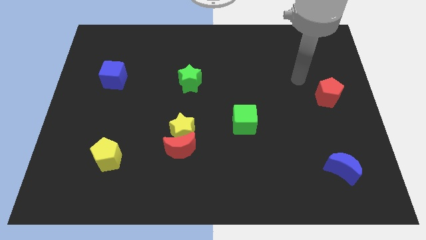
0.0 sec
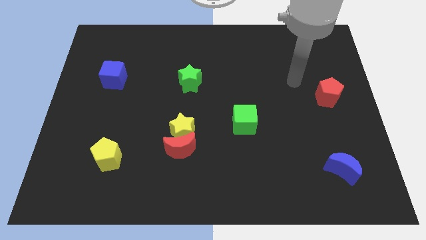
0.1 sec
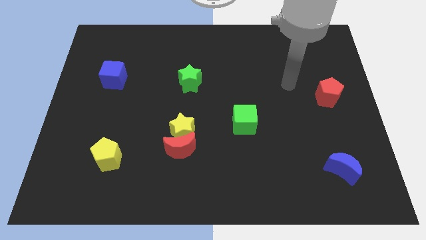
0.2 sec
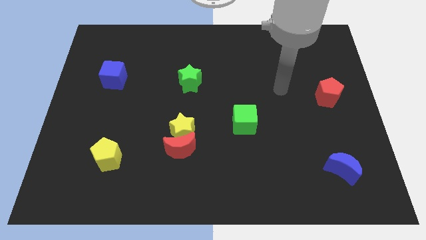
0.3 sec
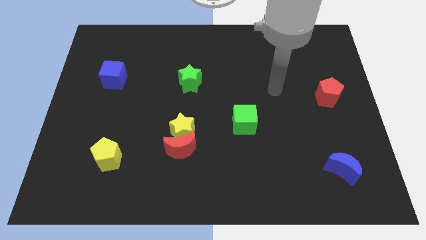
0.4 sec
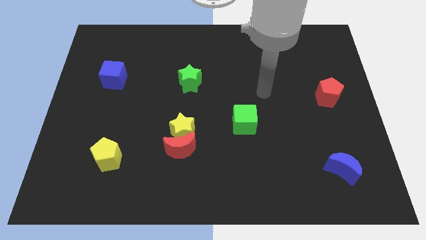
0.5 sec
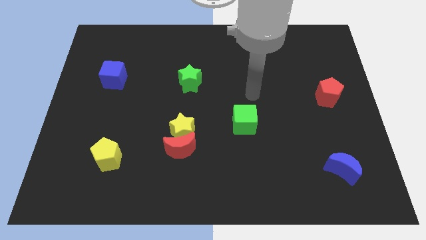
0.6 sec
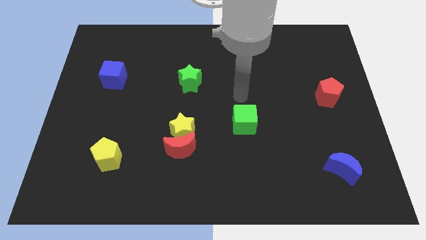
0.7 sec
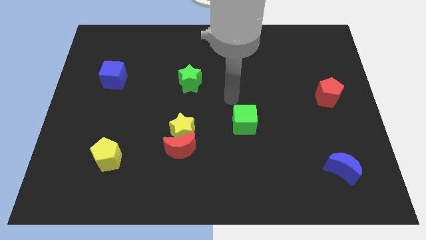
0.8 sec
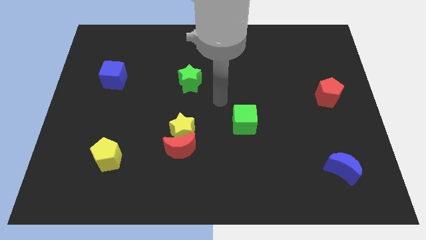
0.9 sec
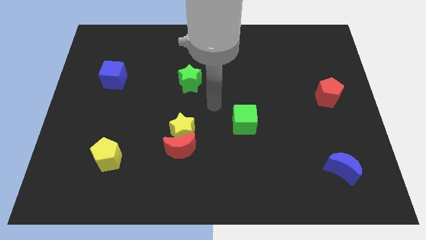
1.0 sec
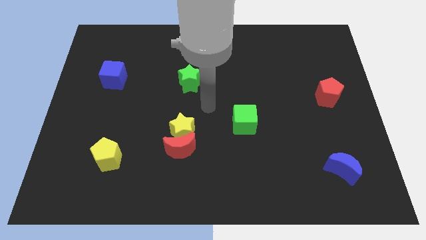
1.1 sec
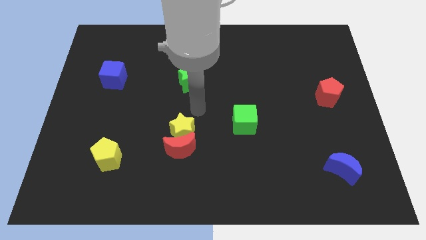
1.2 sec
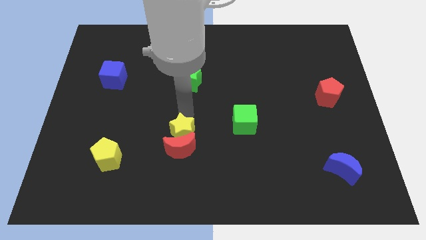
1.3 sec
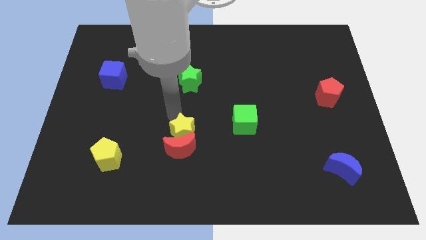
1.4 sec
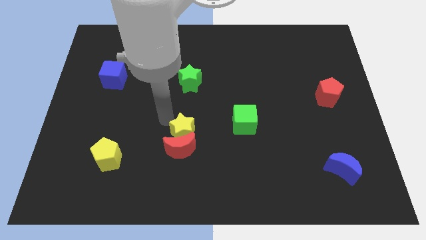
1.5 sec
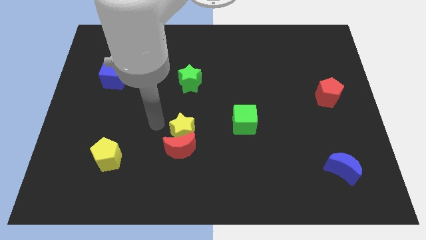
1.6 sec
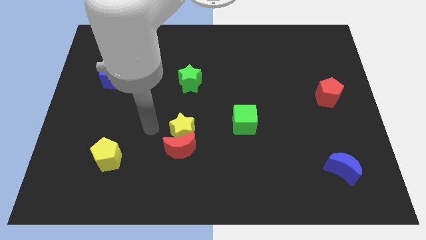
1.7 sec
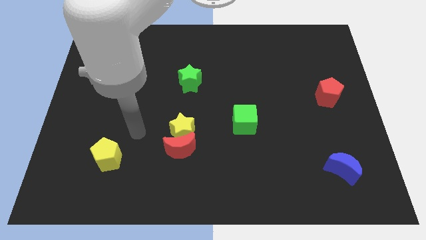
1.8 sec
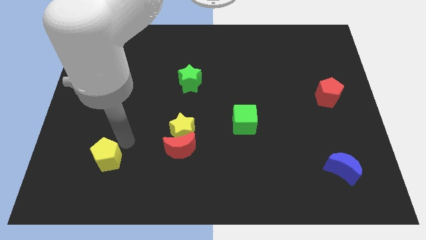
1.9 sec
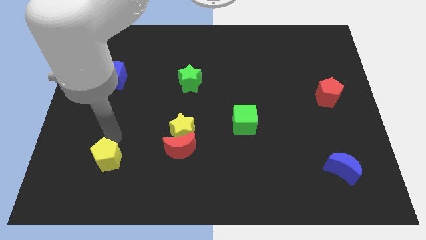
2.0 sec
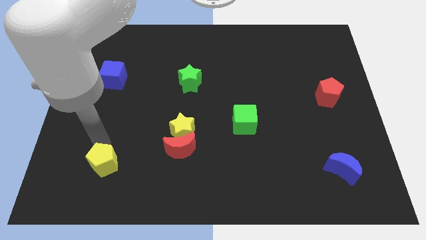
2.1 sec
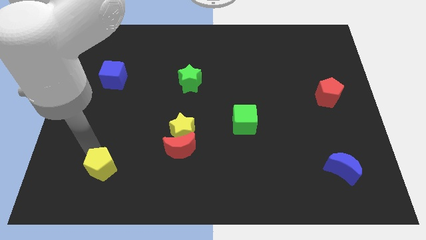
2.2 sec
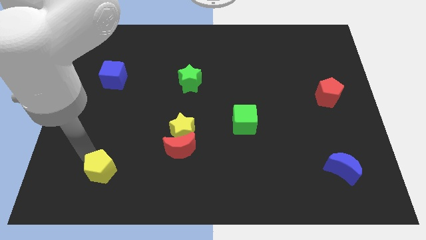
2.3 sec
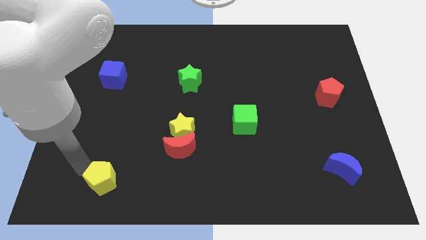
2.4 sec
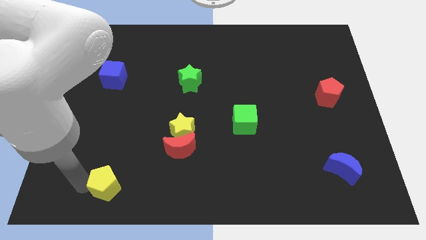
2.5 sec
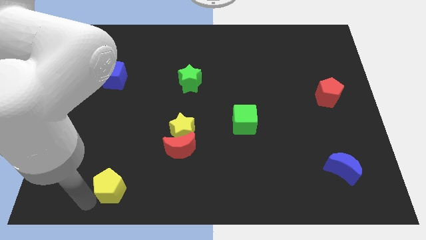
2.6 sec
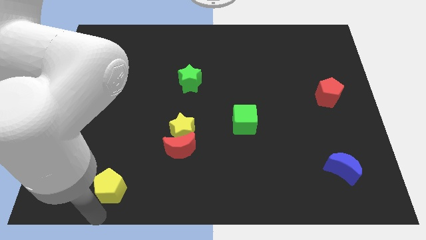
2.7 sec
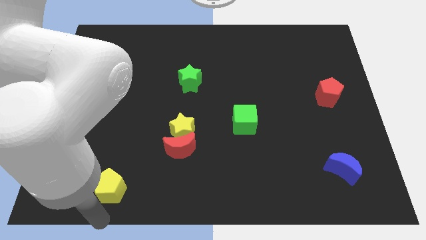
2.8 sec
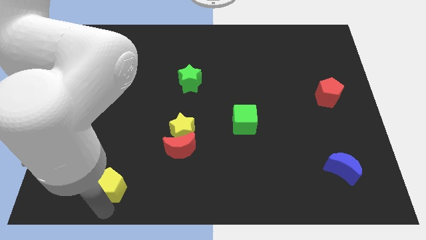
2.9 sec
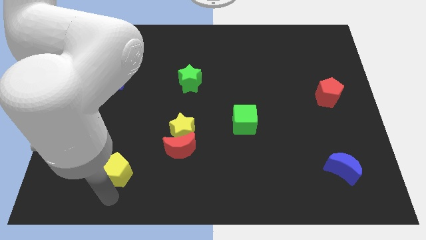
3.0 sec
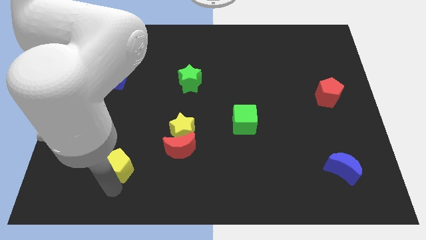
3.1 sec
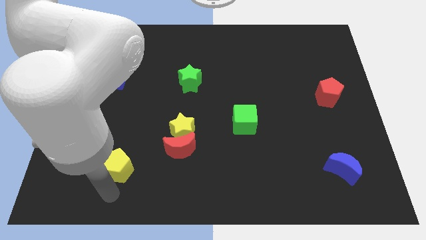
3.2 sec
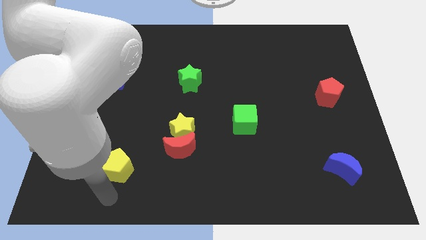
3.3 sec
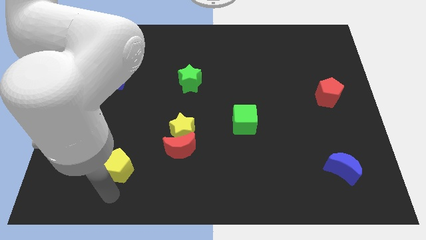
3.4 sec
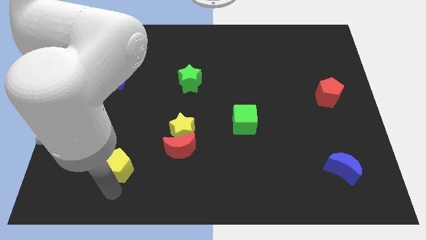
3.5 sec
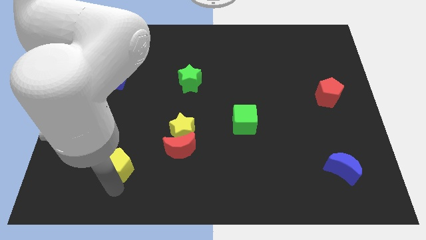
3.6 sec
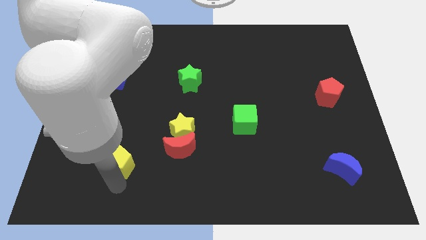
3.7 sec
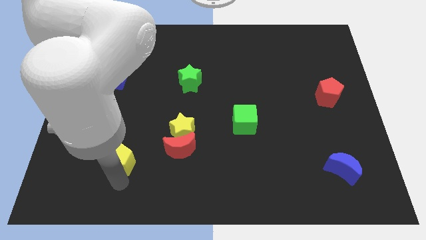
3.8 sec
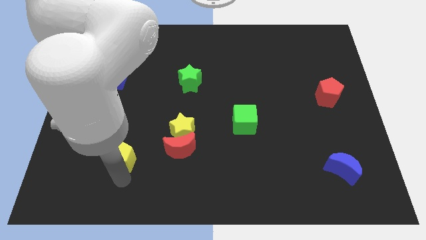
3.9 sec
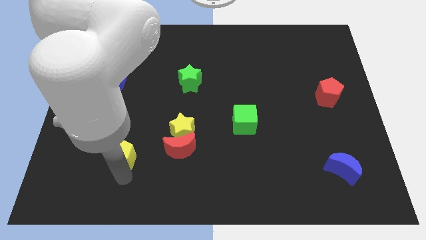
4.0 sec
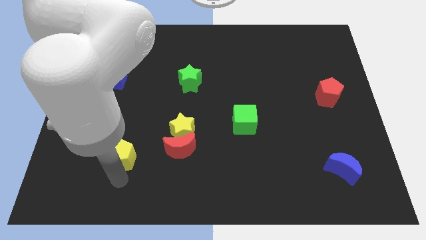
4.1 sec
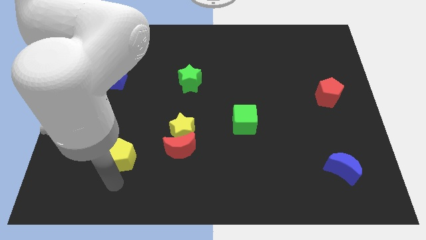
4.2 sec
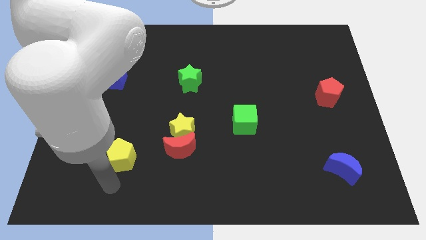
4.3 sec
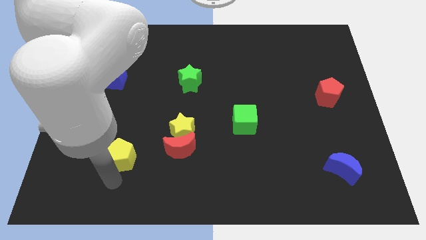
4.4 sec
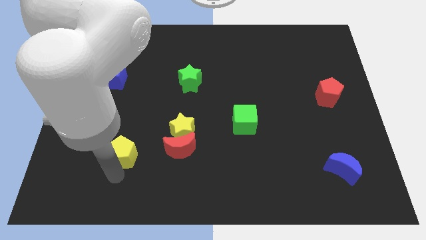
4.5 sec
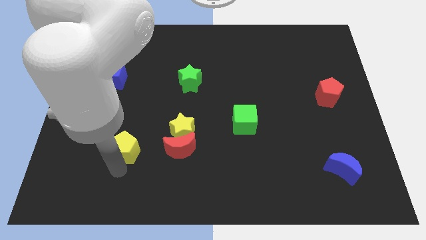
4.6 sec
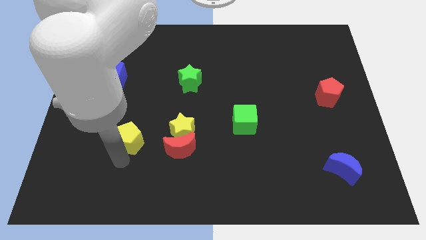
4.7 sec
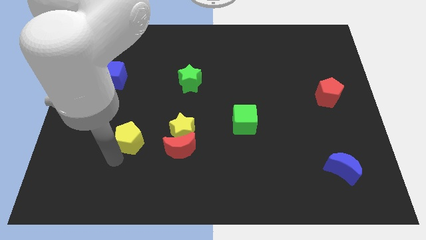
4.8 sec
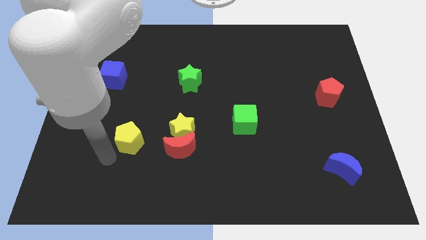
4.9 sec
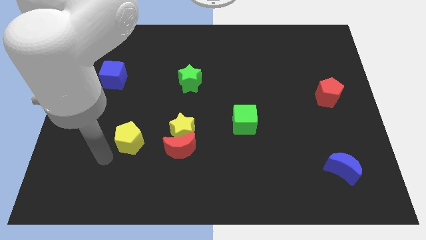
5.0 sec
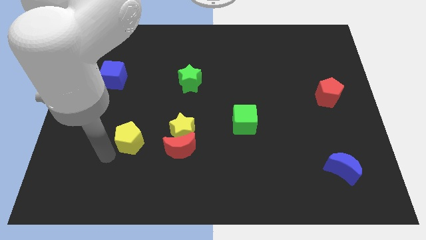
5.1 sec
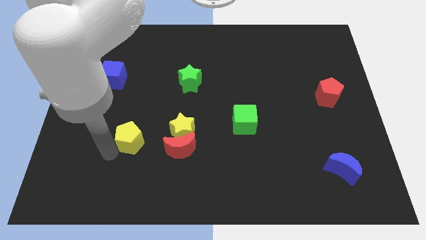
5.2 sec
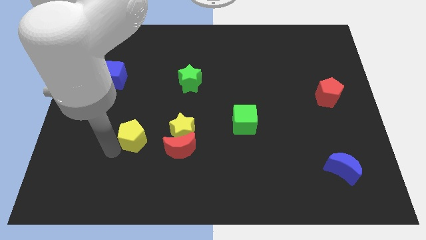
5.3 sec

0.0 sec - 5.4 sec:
move the yellow pentagon slightly up and to the right diagonally

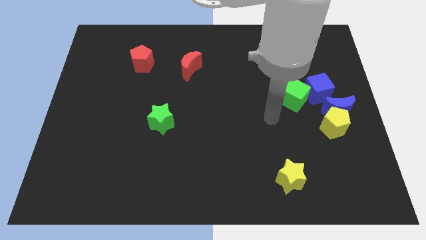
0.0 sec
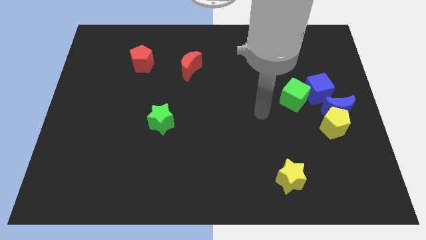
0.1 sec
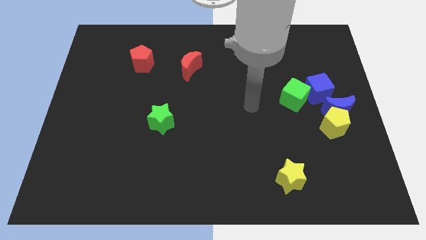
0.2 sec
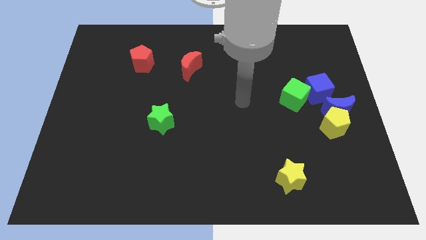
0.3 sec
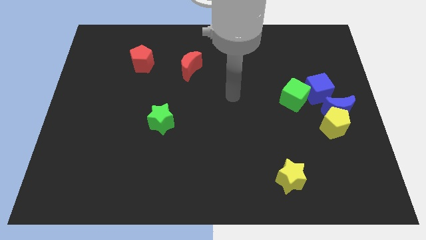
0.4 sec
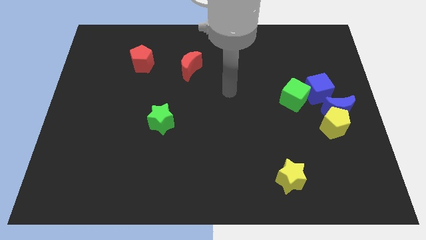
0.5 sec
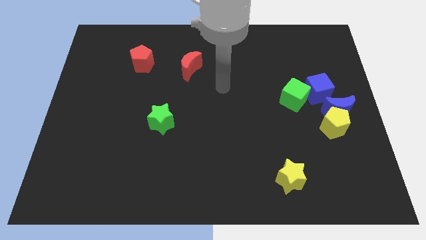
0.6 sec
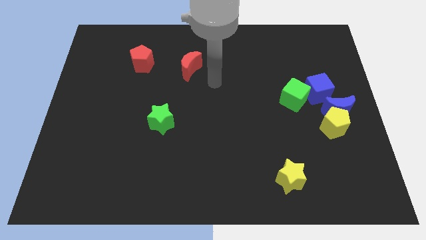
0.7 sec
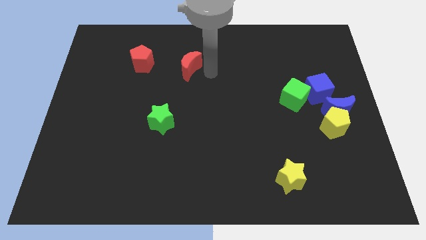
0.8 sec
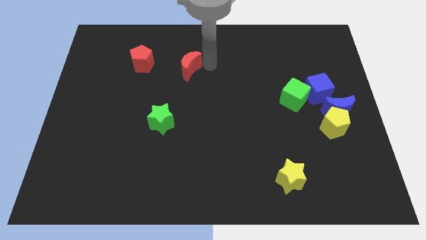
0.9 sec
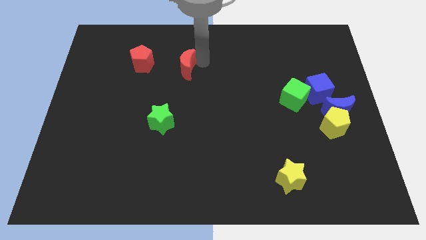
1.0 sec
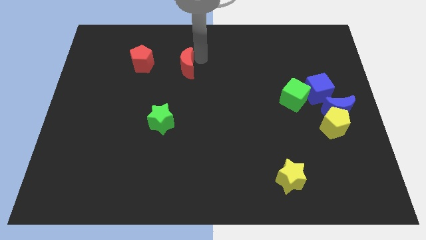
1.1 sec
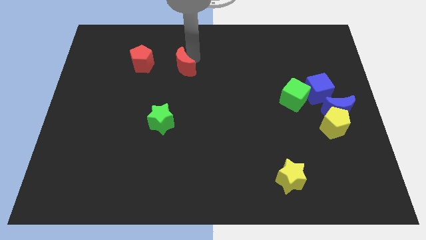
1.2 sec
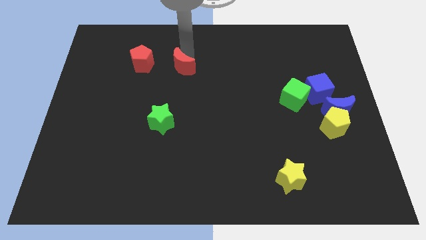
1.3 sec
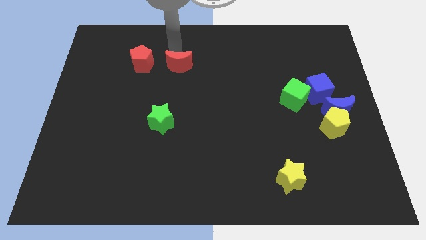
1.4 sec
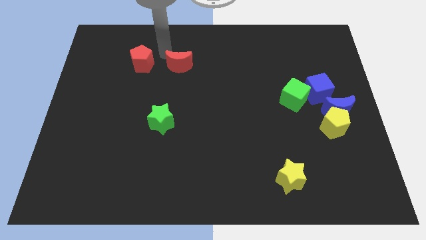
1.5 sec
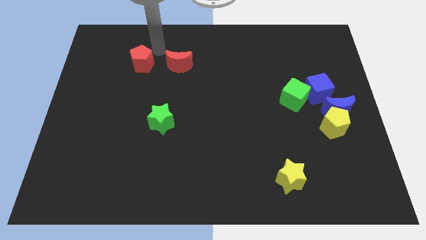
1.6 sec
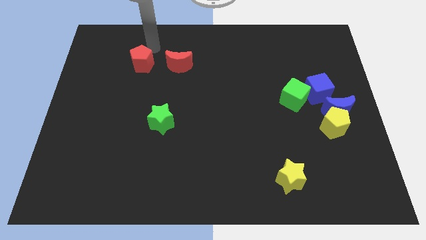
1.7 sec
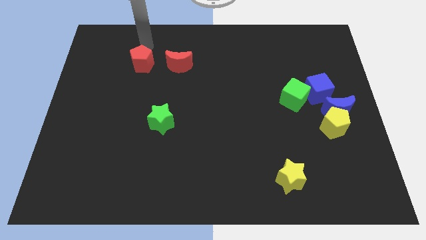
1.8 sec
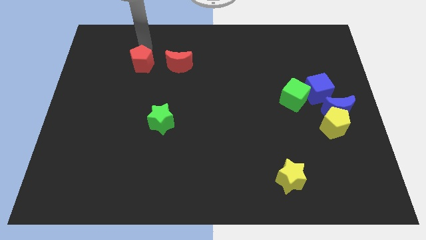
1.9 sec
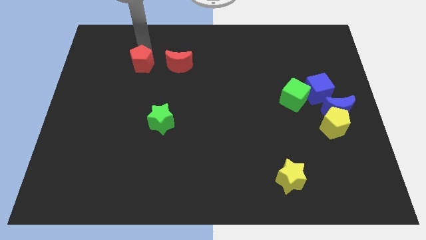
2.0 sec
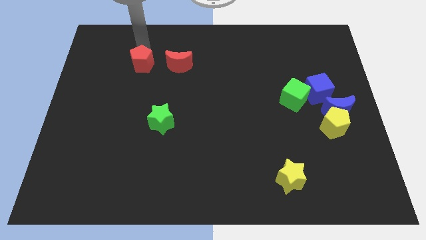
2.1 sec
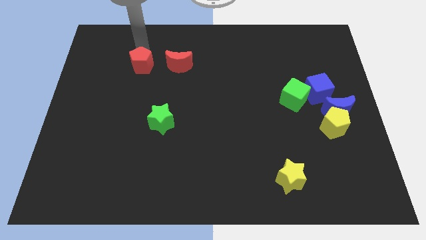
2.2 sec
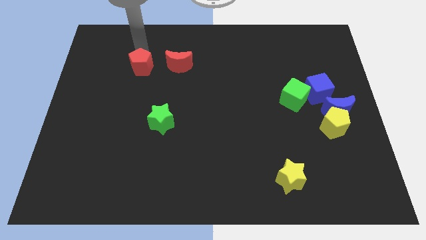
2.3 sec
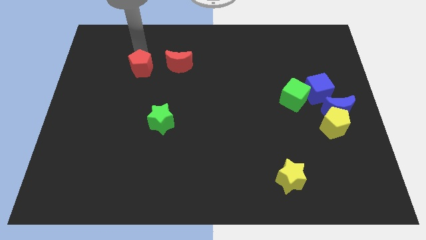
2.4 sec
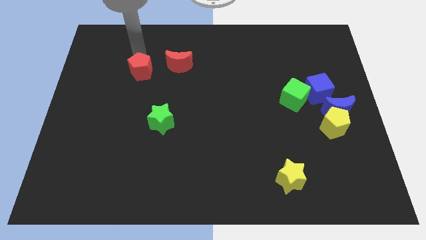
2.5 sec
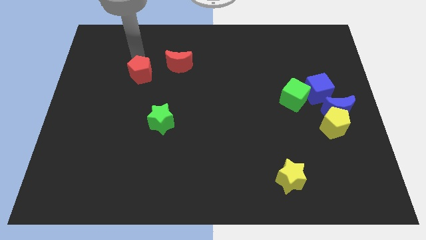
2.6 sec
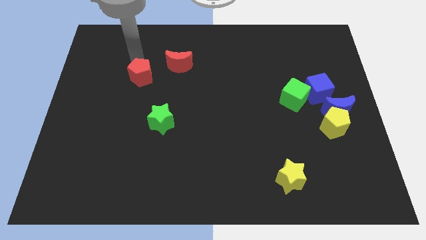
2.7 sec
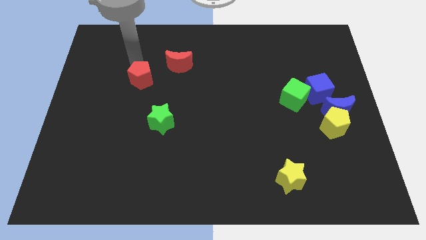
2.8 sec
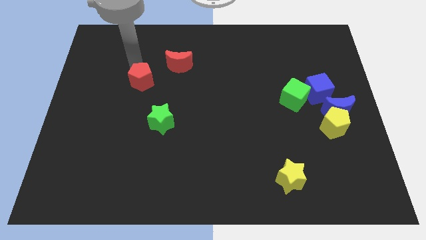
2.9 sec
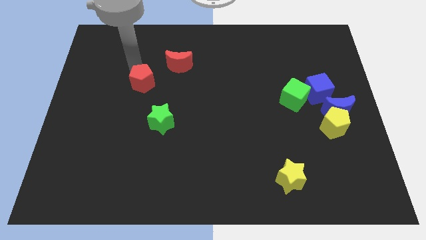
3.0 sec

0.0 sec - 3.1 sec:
slide the red pentagon a bit downwards

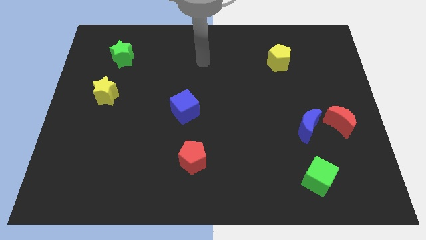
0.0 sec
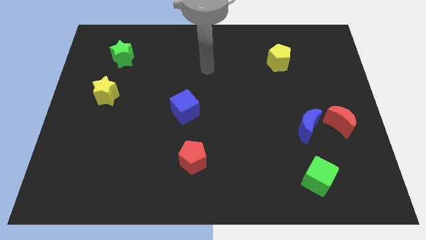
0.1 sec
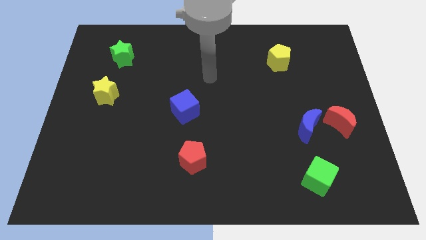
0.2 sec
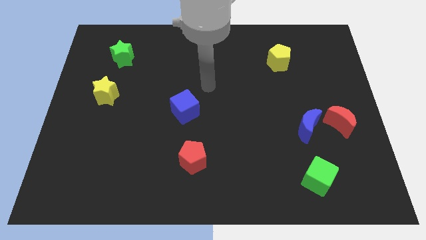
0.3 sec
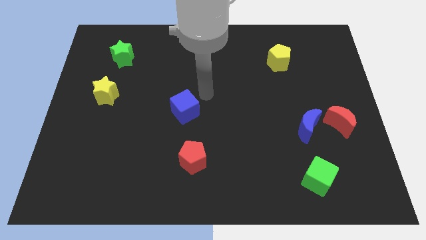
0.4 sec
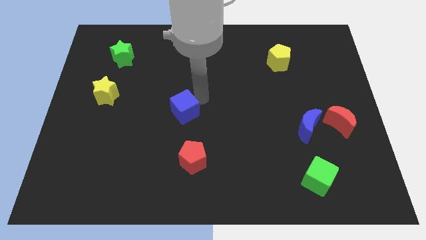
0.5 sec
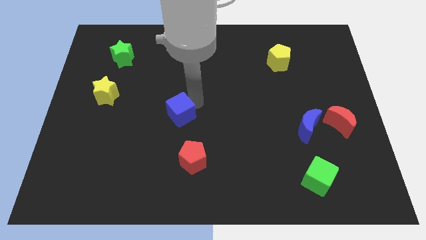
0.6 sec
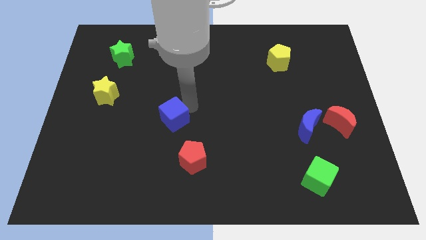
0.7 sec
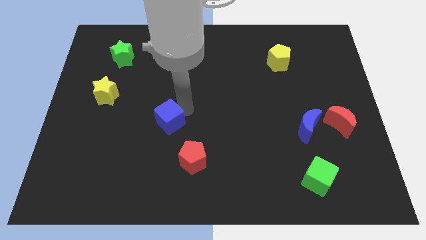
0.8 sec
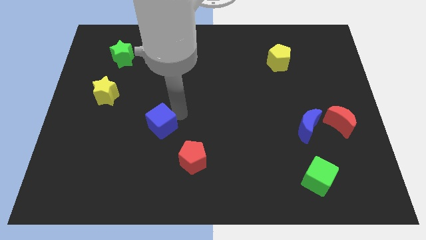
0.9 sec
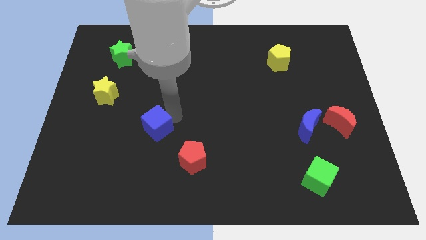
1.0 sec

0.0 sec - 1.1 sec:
move the blue cube slightly downwards and then left
